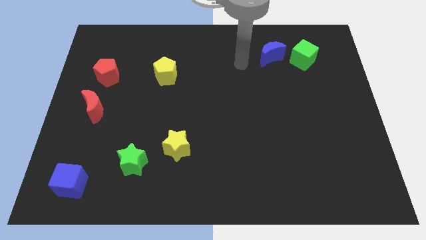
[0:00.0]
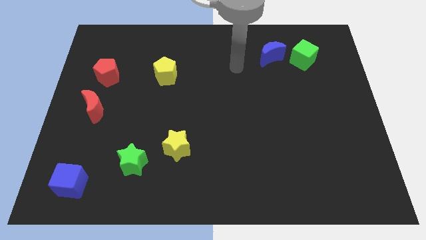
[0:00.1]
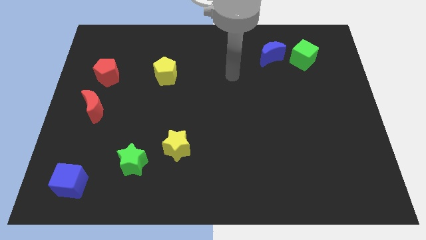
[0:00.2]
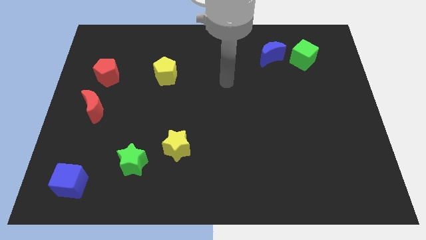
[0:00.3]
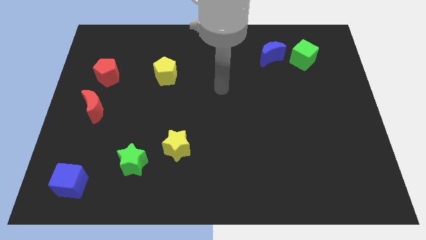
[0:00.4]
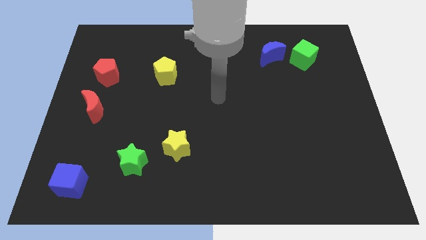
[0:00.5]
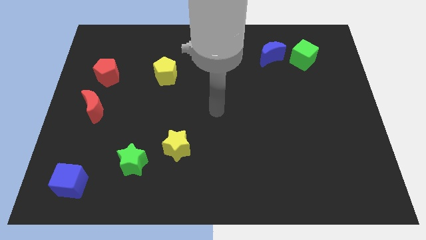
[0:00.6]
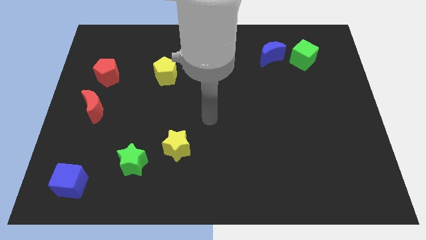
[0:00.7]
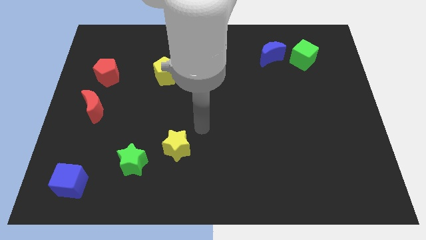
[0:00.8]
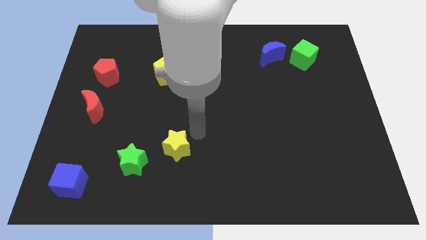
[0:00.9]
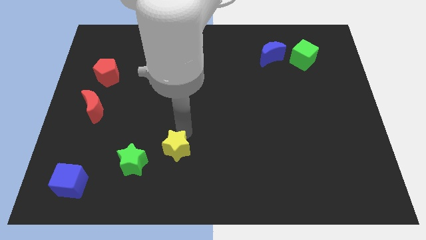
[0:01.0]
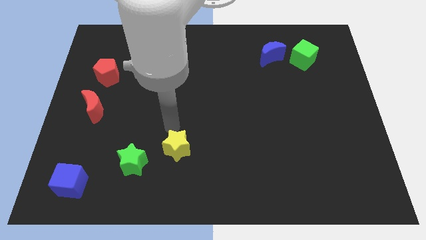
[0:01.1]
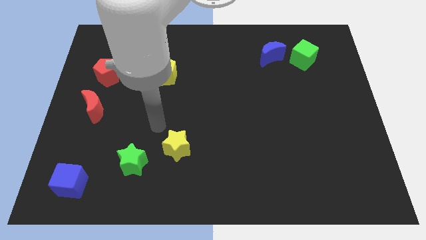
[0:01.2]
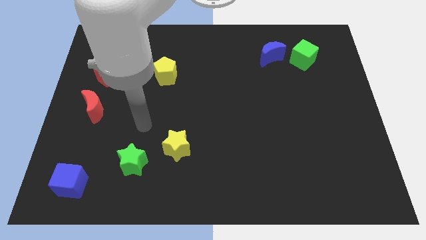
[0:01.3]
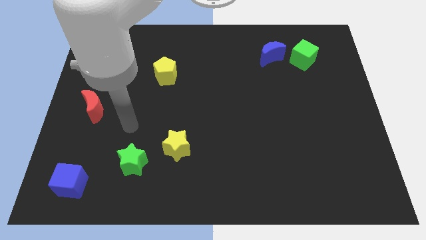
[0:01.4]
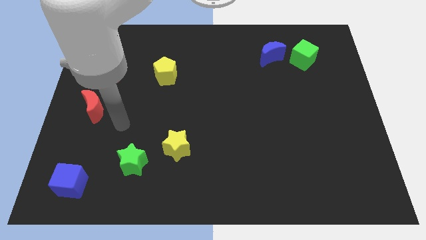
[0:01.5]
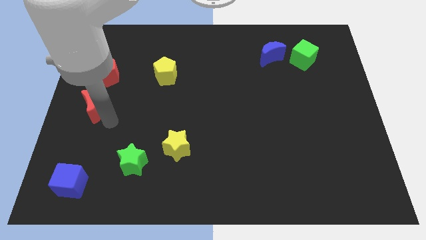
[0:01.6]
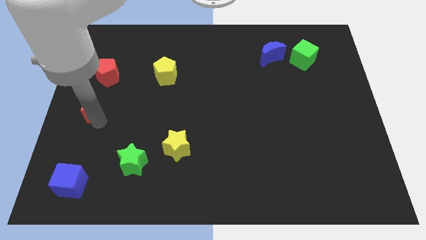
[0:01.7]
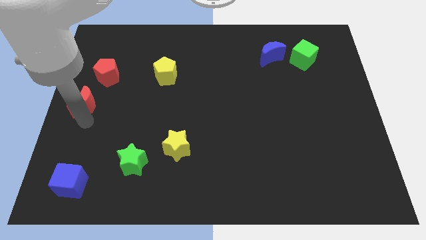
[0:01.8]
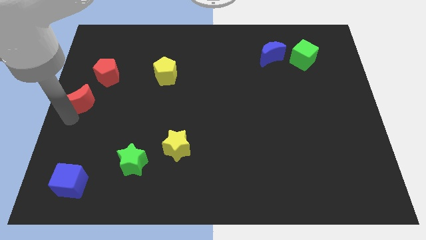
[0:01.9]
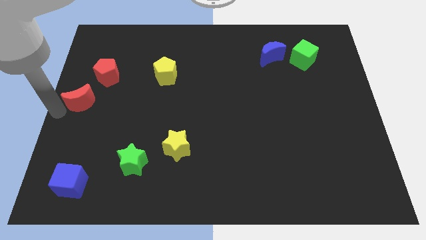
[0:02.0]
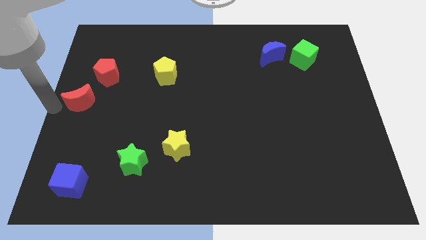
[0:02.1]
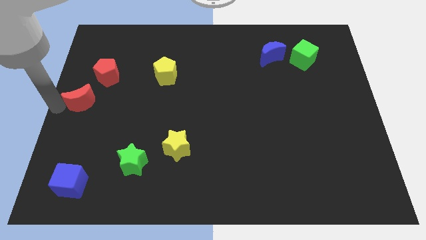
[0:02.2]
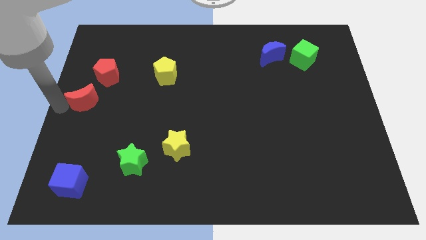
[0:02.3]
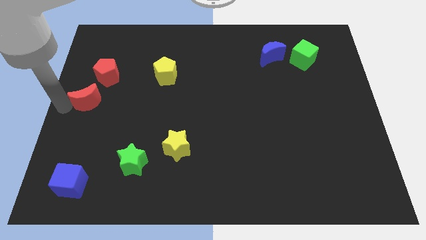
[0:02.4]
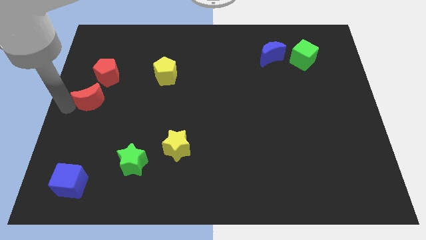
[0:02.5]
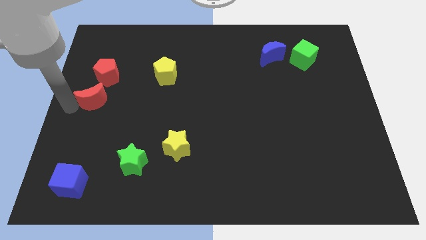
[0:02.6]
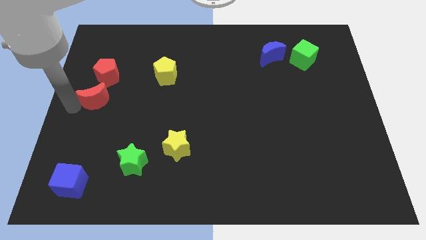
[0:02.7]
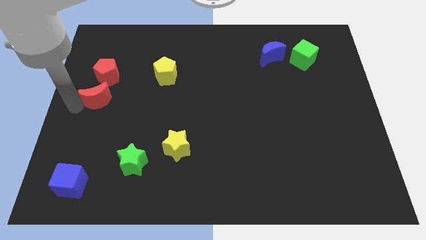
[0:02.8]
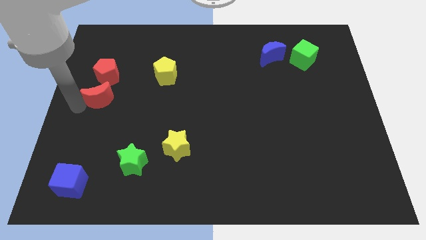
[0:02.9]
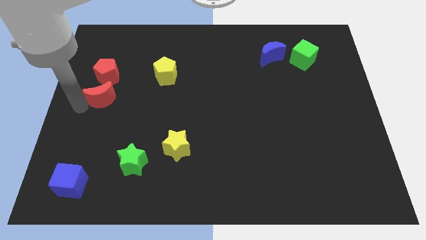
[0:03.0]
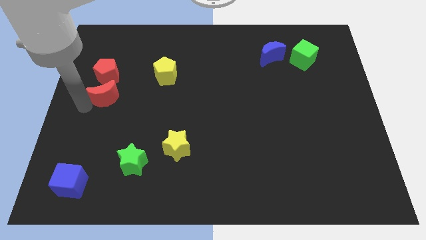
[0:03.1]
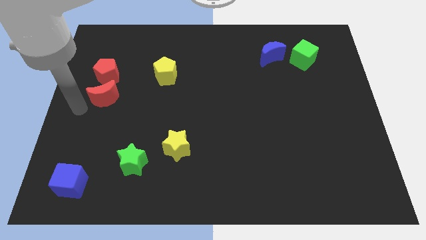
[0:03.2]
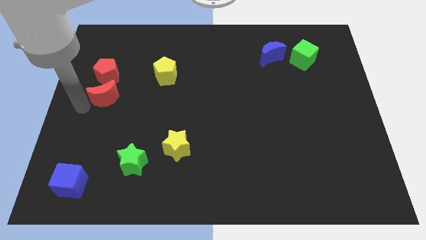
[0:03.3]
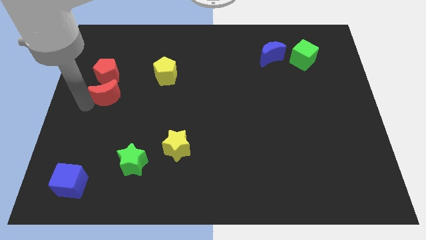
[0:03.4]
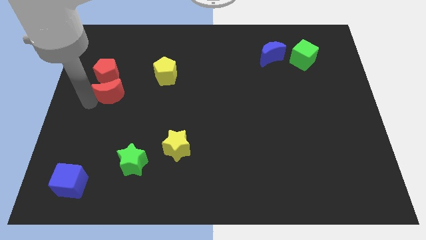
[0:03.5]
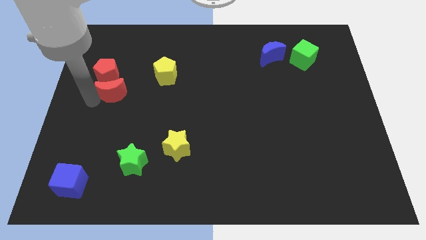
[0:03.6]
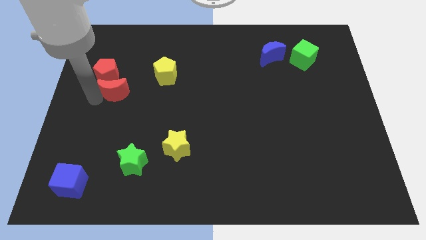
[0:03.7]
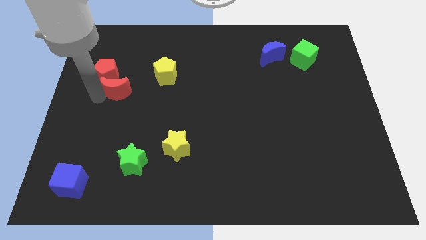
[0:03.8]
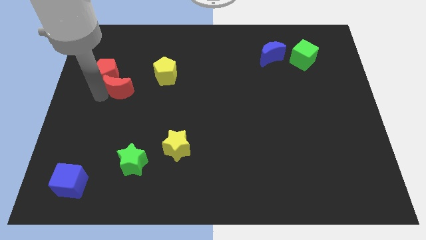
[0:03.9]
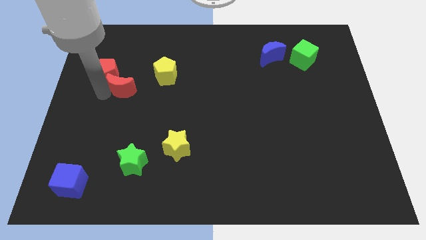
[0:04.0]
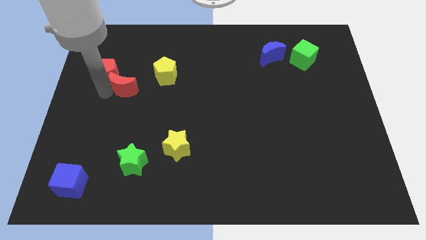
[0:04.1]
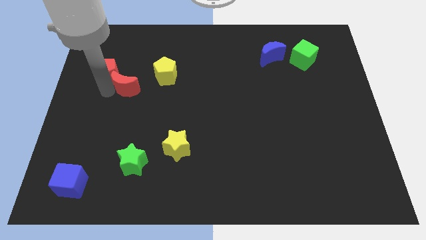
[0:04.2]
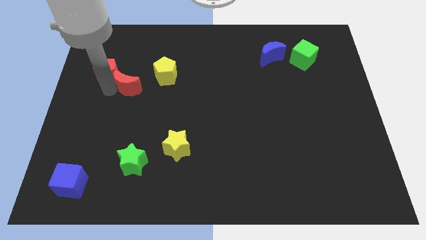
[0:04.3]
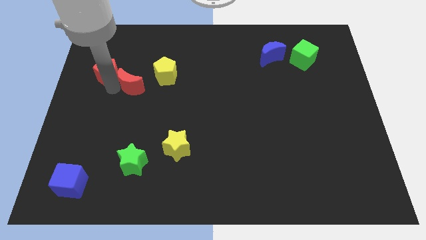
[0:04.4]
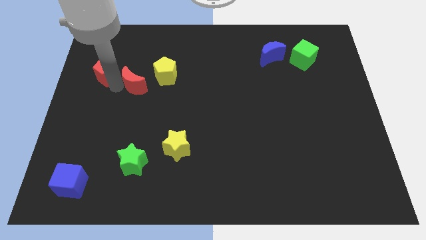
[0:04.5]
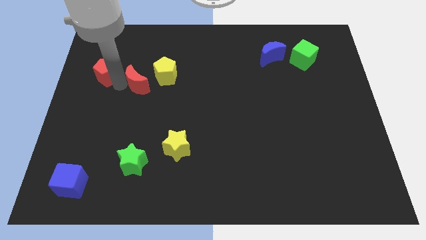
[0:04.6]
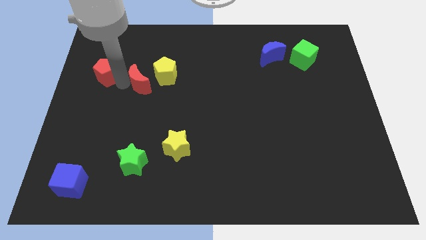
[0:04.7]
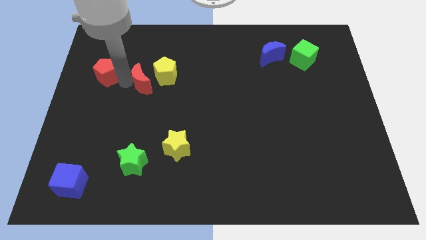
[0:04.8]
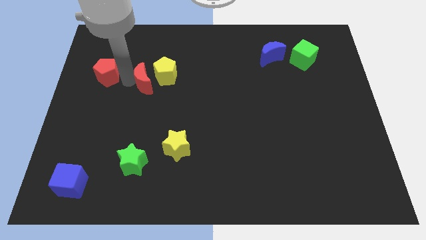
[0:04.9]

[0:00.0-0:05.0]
put the red moon towards the yellow pentagon

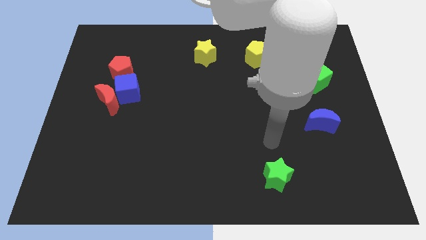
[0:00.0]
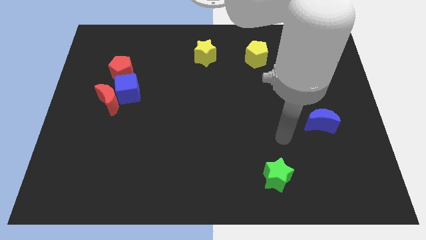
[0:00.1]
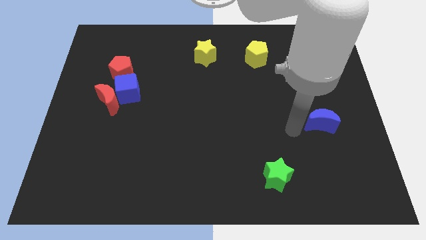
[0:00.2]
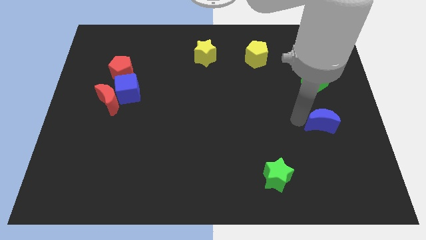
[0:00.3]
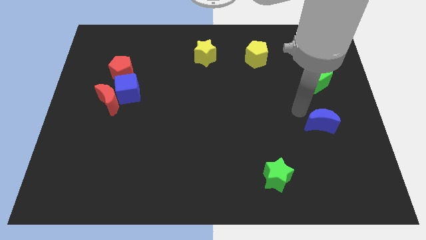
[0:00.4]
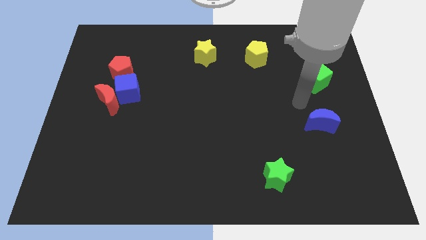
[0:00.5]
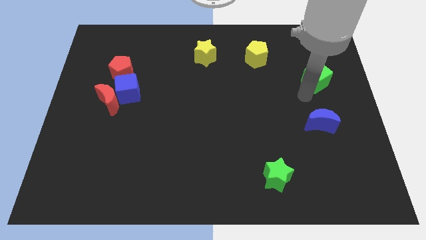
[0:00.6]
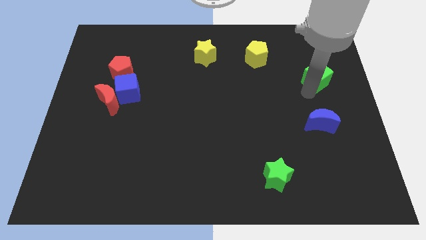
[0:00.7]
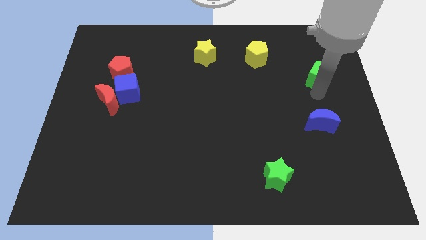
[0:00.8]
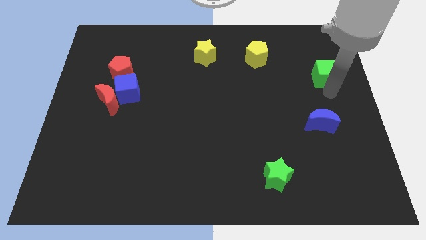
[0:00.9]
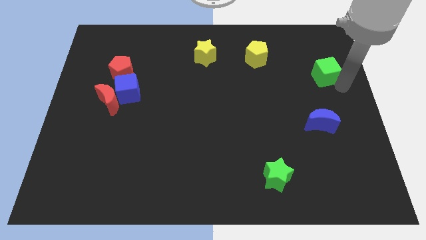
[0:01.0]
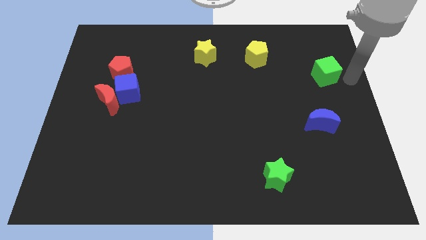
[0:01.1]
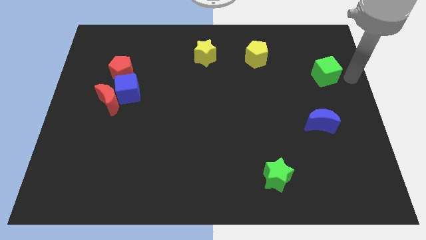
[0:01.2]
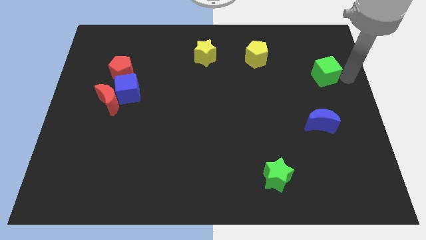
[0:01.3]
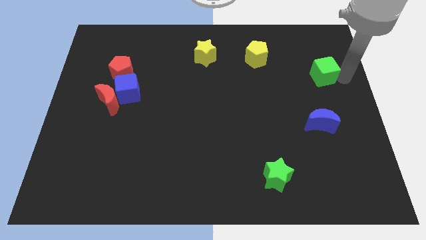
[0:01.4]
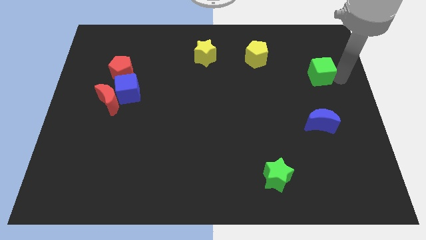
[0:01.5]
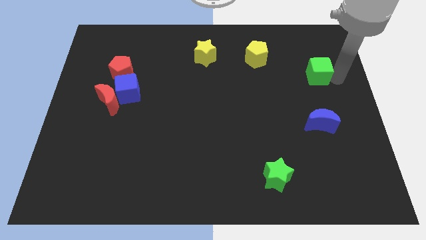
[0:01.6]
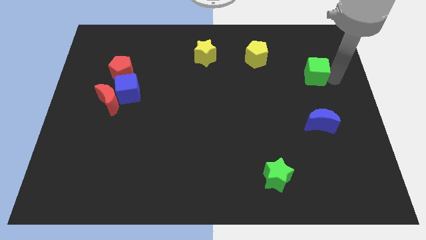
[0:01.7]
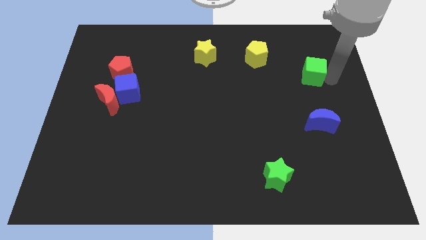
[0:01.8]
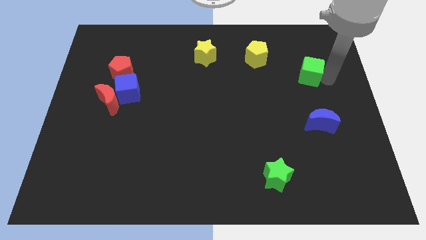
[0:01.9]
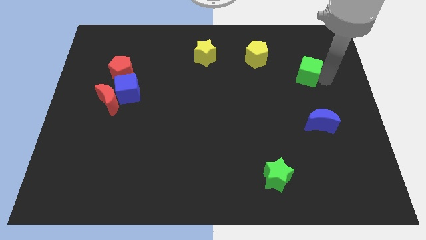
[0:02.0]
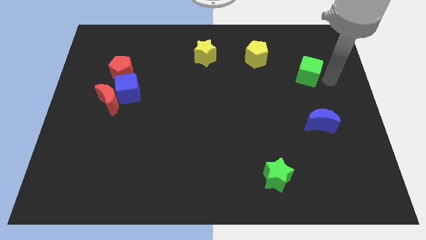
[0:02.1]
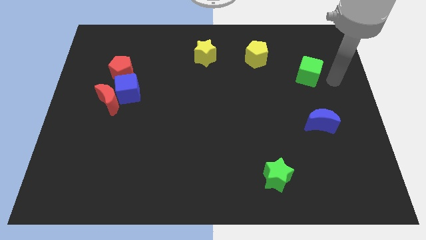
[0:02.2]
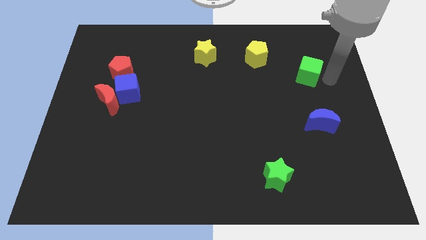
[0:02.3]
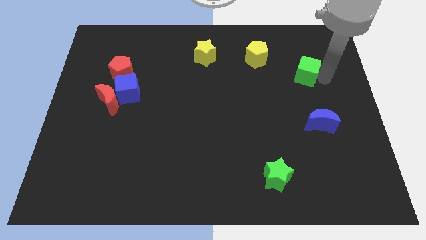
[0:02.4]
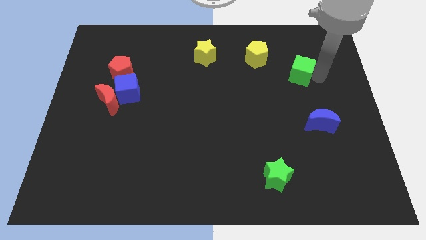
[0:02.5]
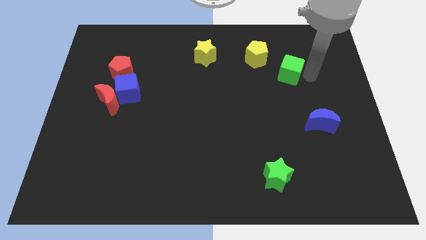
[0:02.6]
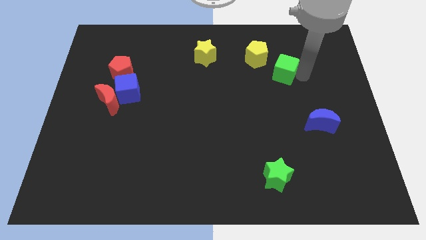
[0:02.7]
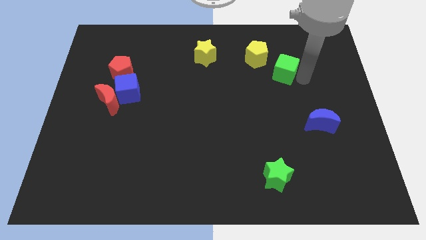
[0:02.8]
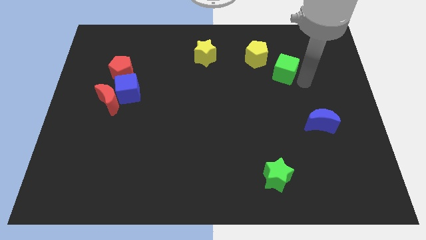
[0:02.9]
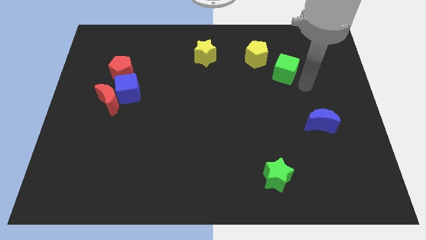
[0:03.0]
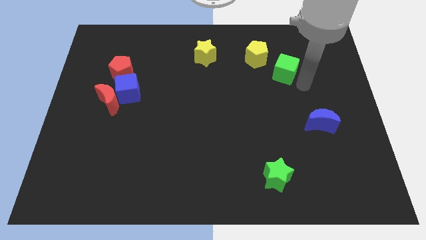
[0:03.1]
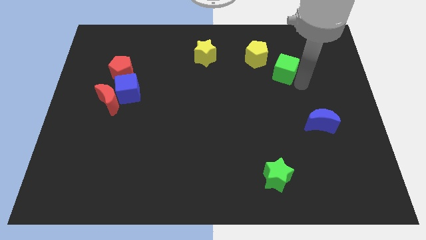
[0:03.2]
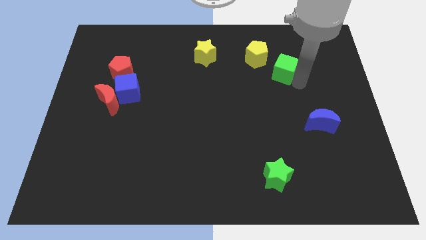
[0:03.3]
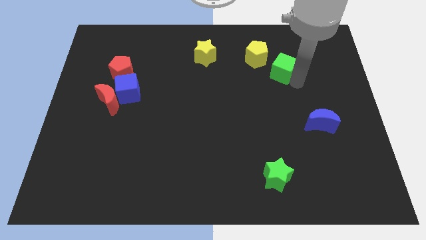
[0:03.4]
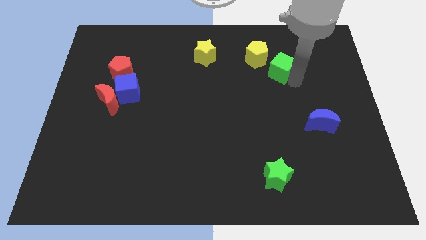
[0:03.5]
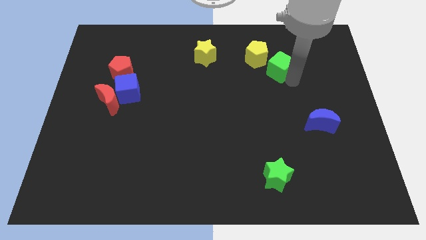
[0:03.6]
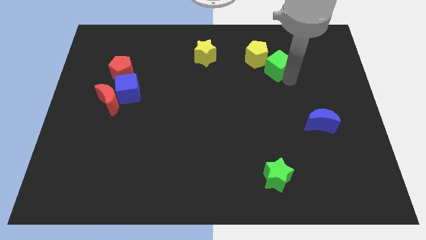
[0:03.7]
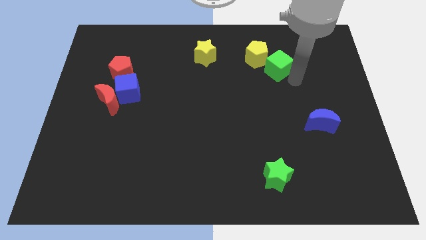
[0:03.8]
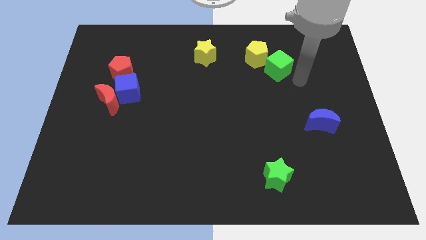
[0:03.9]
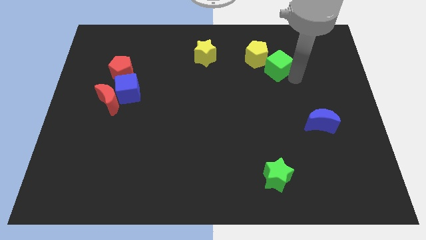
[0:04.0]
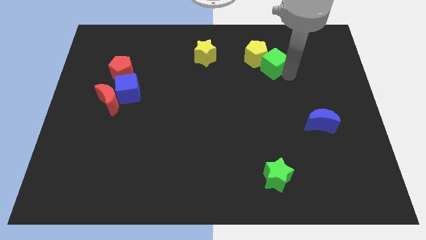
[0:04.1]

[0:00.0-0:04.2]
push the green cube close to the yellow pentagon
